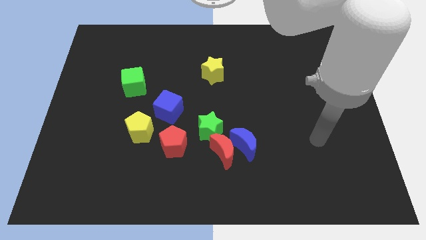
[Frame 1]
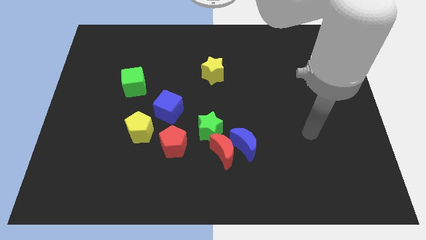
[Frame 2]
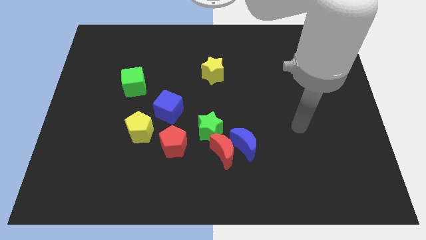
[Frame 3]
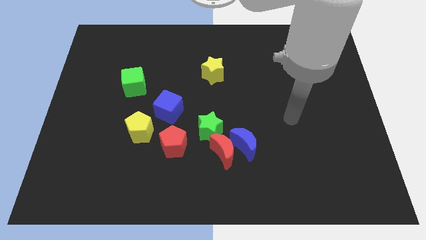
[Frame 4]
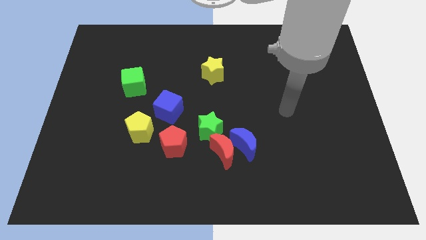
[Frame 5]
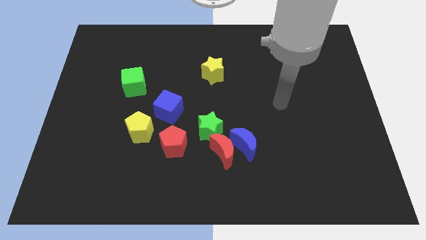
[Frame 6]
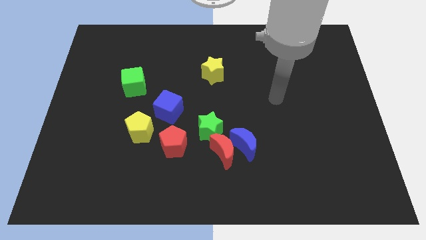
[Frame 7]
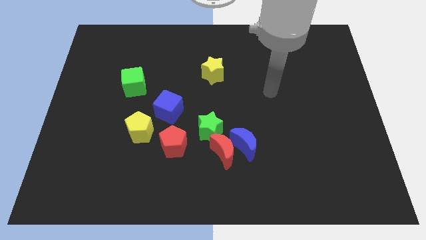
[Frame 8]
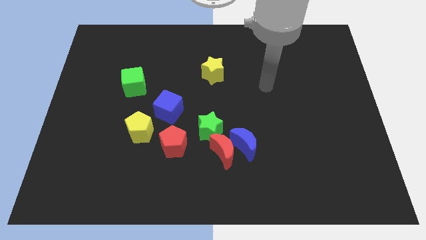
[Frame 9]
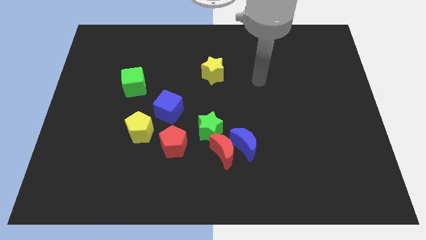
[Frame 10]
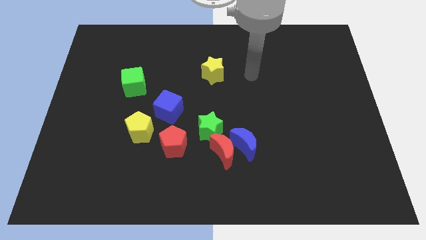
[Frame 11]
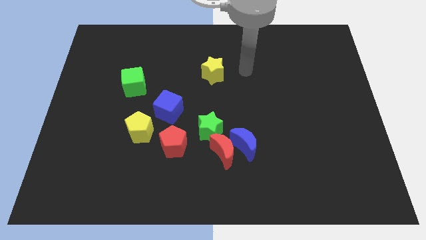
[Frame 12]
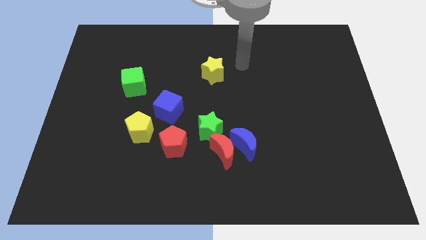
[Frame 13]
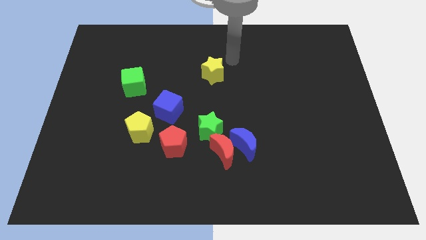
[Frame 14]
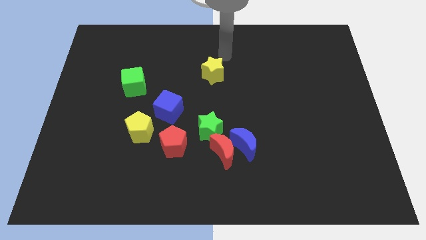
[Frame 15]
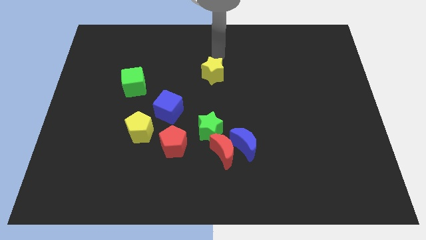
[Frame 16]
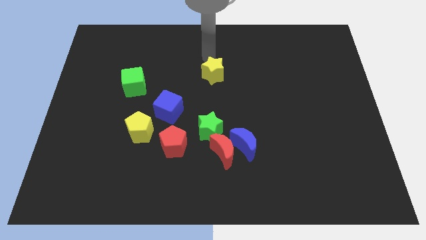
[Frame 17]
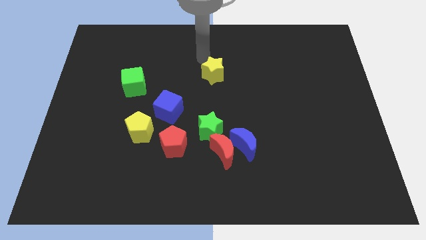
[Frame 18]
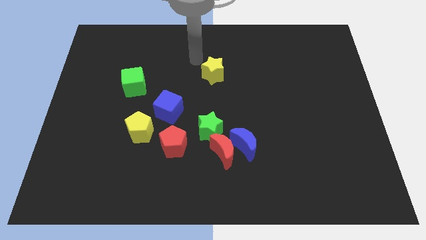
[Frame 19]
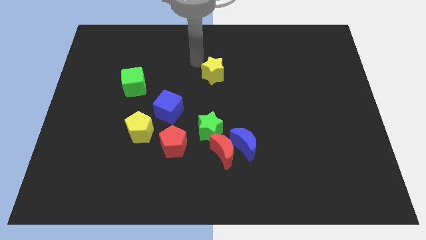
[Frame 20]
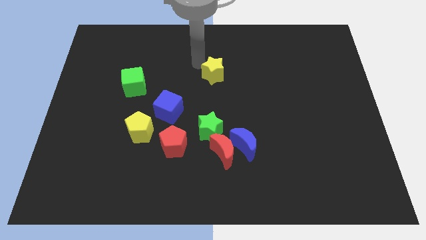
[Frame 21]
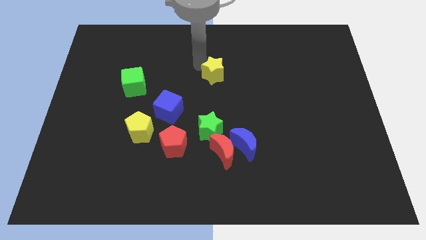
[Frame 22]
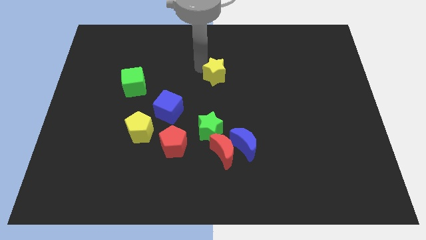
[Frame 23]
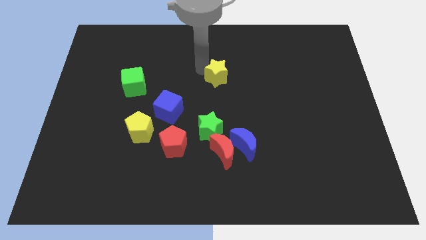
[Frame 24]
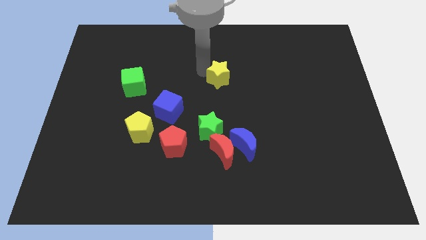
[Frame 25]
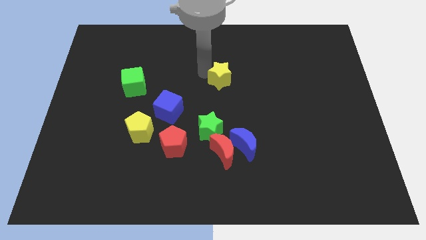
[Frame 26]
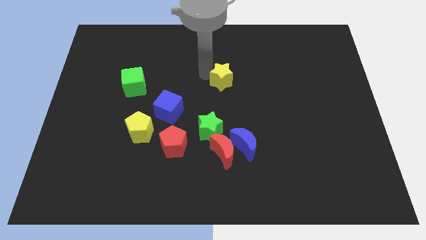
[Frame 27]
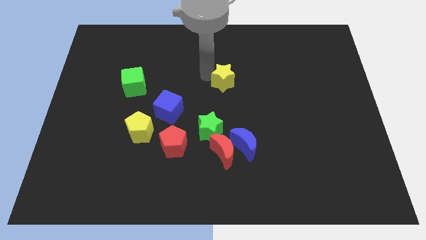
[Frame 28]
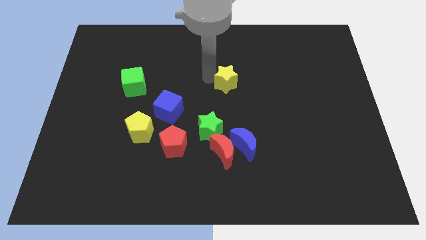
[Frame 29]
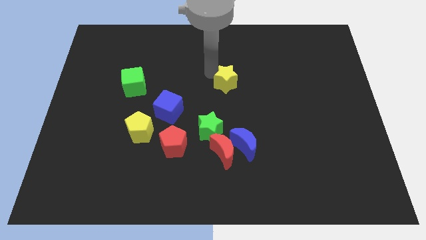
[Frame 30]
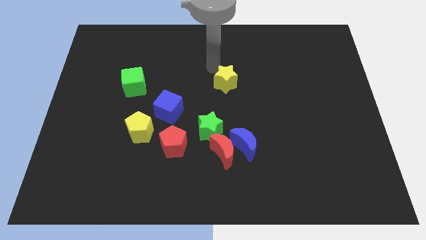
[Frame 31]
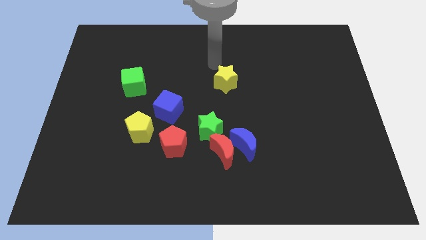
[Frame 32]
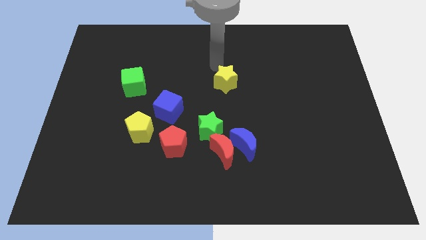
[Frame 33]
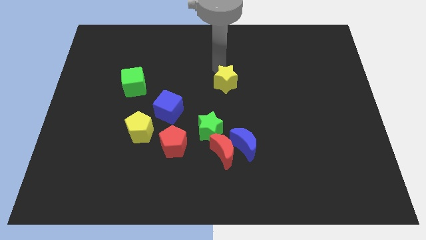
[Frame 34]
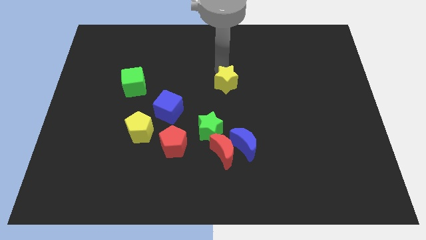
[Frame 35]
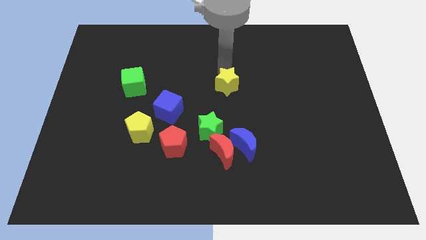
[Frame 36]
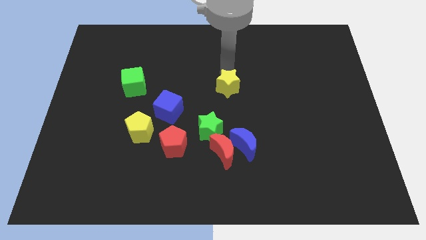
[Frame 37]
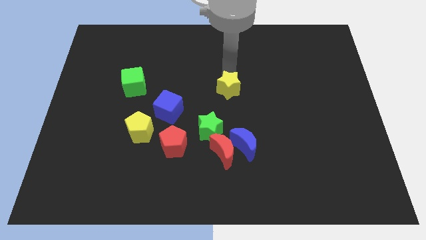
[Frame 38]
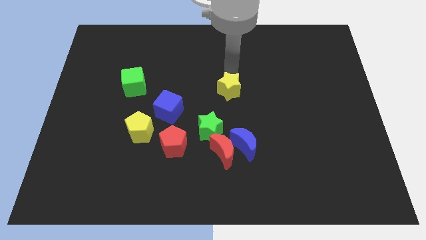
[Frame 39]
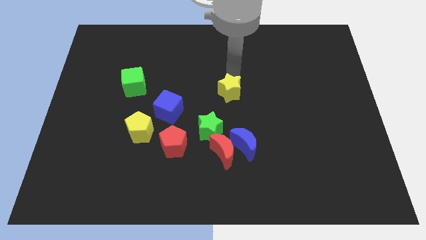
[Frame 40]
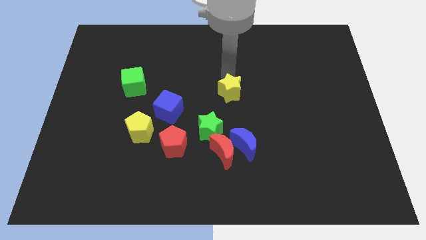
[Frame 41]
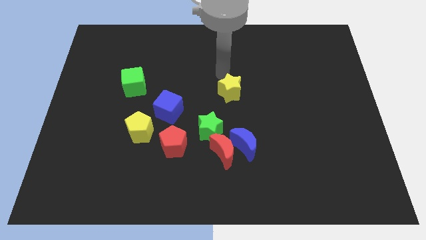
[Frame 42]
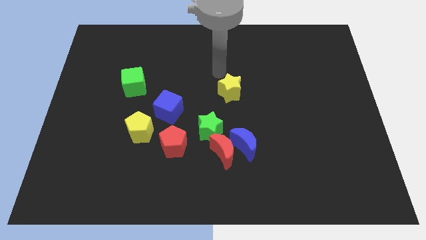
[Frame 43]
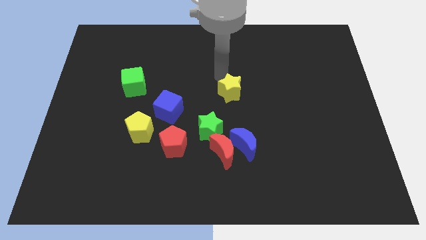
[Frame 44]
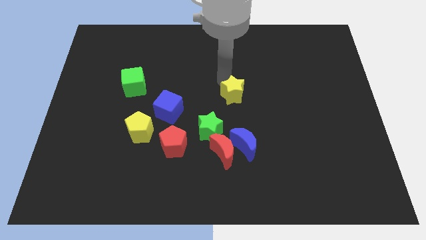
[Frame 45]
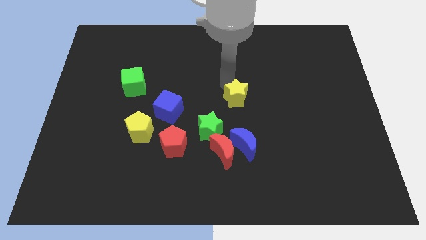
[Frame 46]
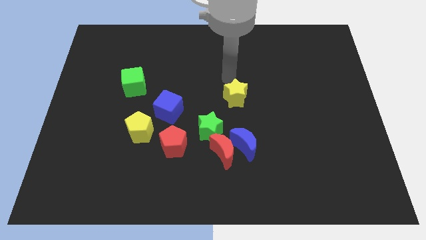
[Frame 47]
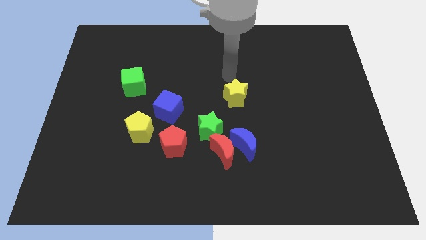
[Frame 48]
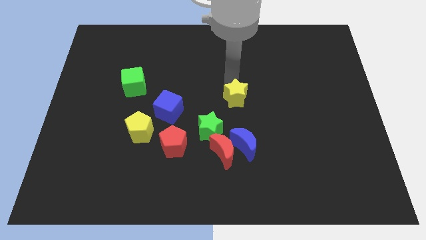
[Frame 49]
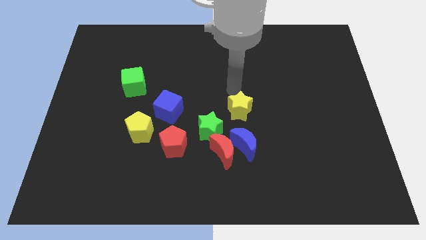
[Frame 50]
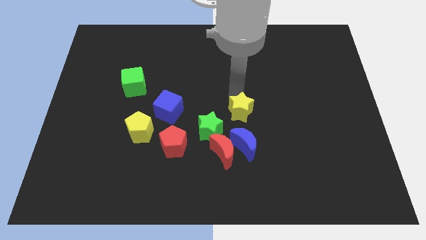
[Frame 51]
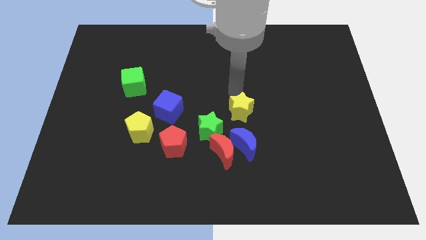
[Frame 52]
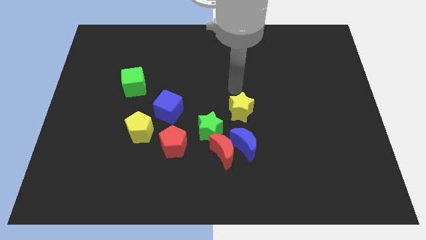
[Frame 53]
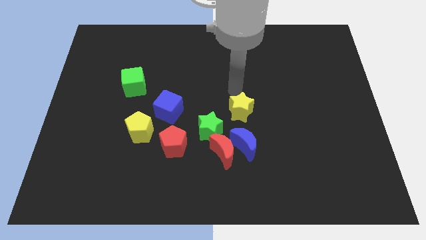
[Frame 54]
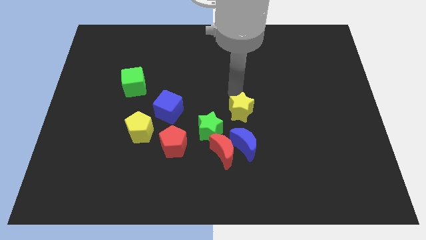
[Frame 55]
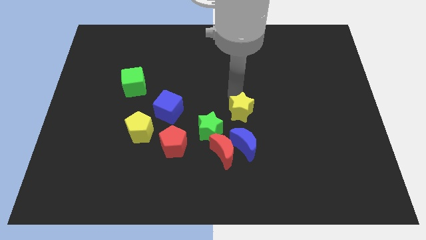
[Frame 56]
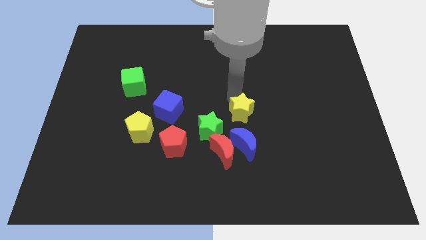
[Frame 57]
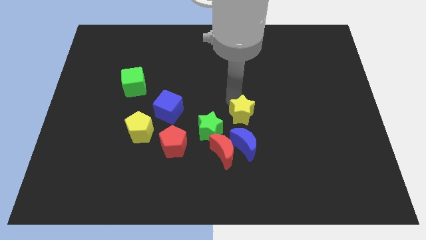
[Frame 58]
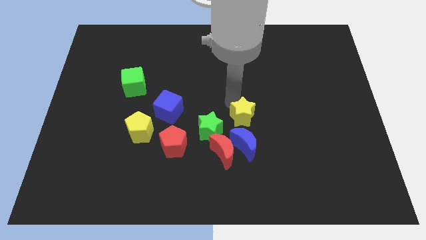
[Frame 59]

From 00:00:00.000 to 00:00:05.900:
push the yellow star to the top right side of the red moon

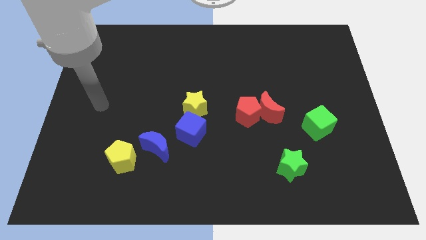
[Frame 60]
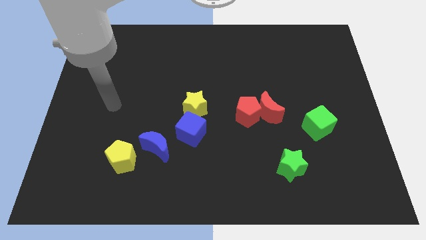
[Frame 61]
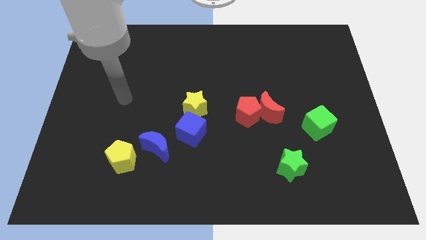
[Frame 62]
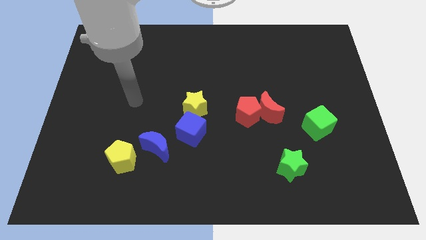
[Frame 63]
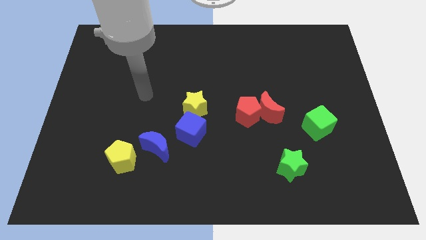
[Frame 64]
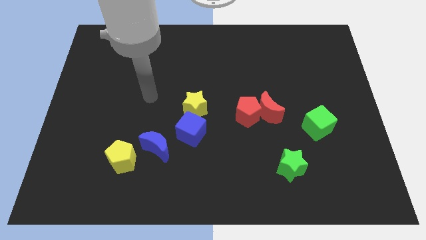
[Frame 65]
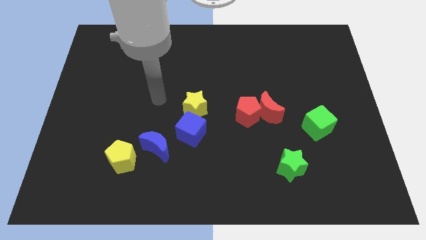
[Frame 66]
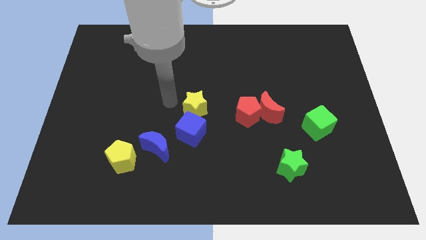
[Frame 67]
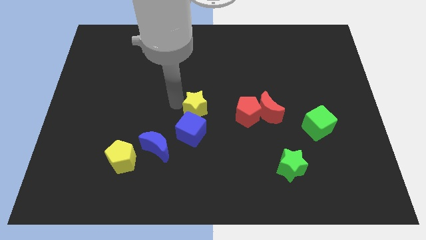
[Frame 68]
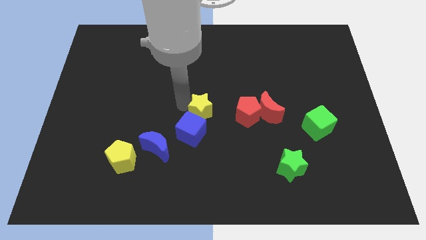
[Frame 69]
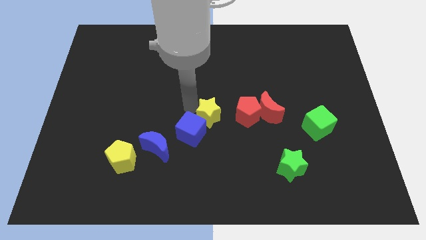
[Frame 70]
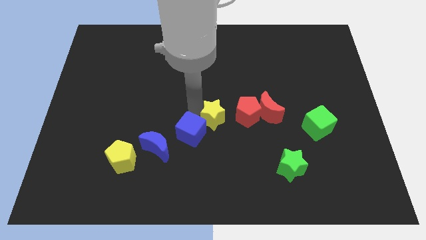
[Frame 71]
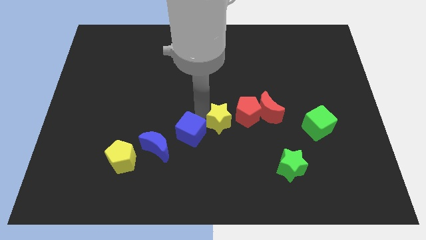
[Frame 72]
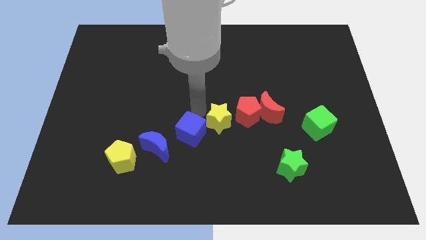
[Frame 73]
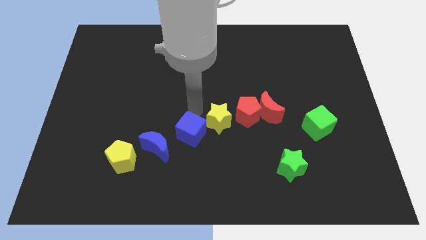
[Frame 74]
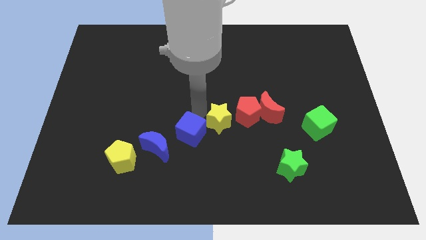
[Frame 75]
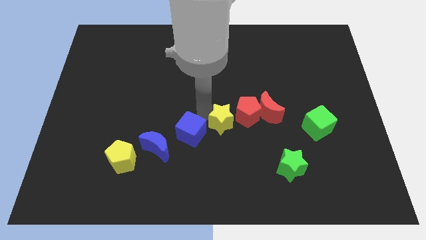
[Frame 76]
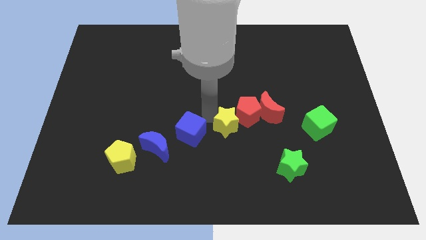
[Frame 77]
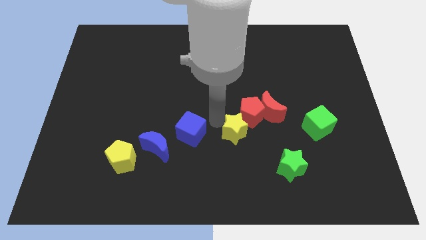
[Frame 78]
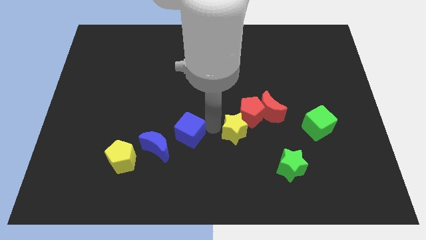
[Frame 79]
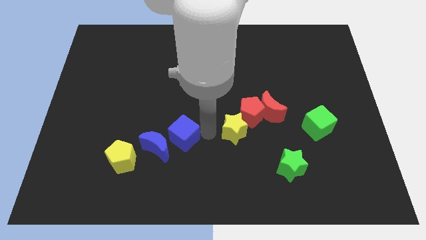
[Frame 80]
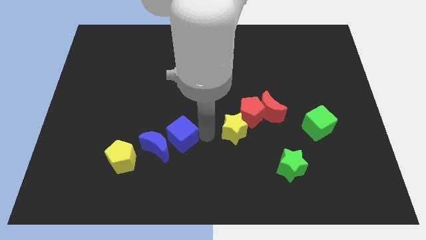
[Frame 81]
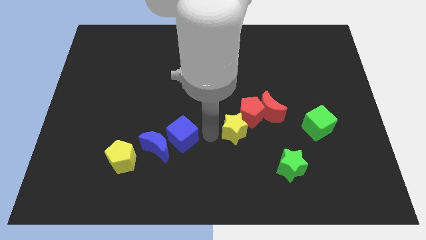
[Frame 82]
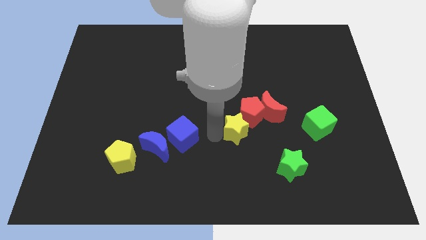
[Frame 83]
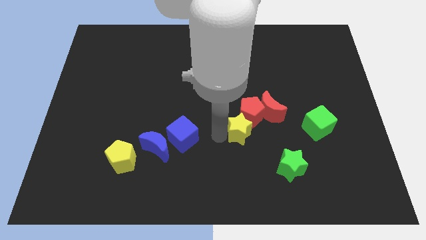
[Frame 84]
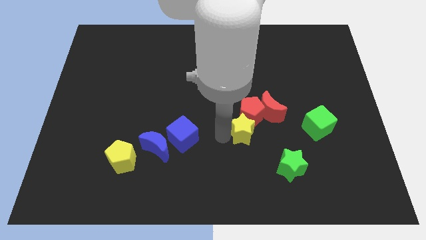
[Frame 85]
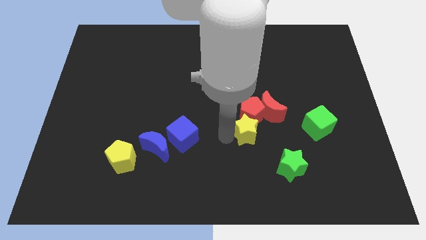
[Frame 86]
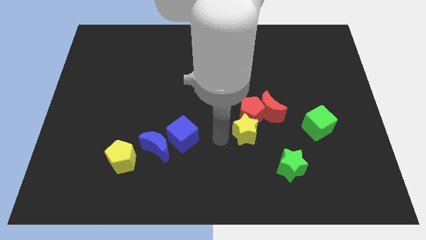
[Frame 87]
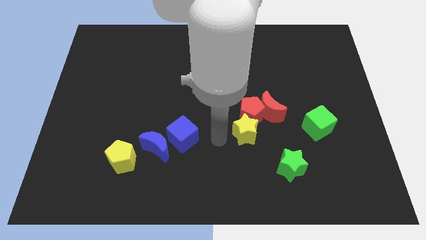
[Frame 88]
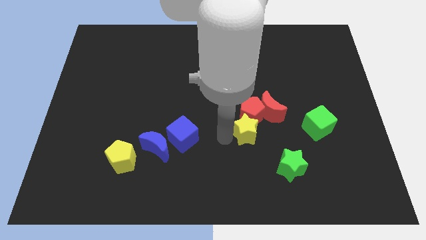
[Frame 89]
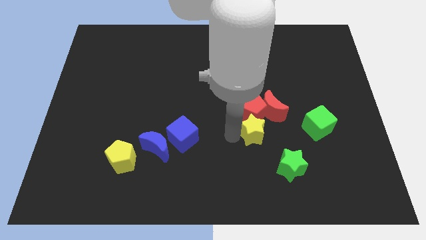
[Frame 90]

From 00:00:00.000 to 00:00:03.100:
put the yellow star to the left of the green cube
